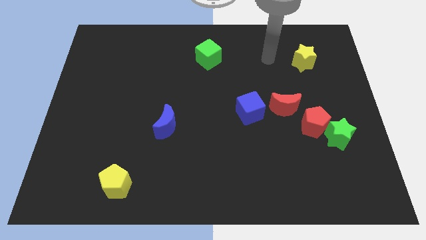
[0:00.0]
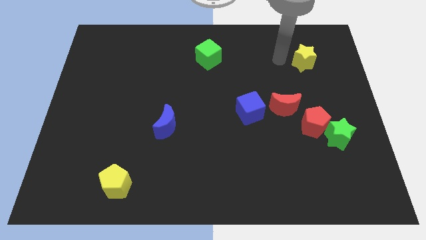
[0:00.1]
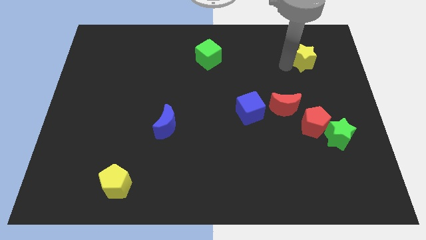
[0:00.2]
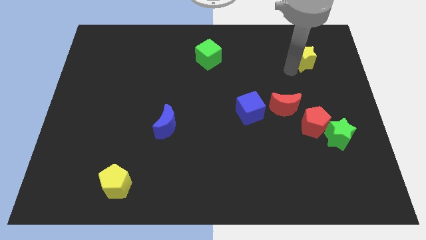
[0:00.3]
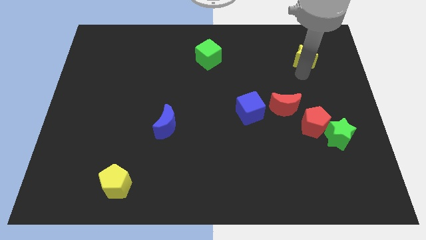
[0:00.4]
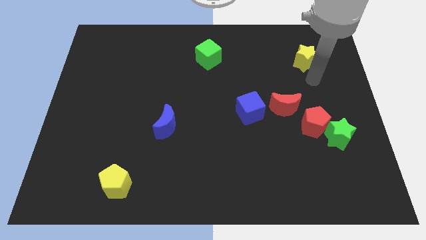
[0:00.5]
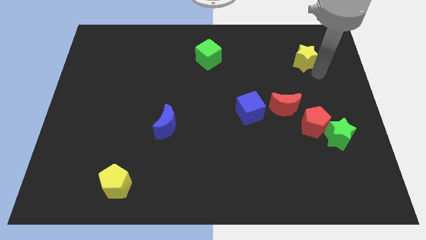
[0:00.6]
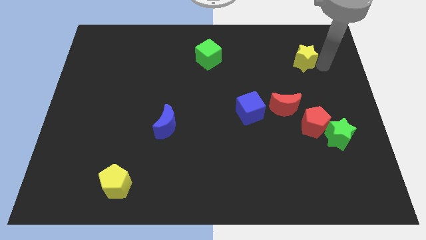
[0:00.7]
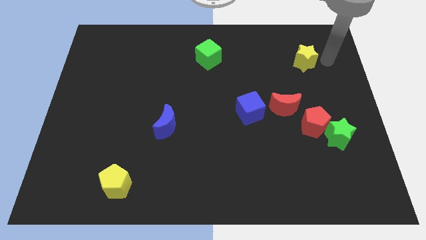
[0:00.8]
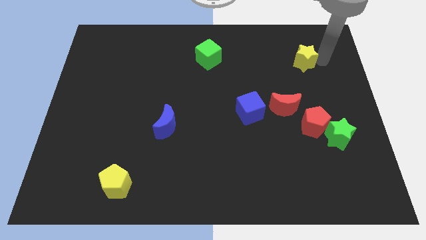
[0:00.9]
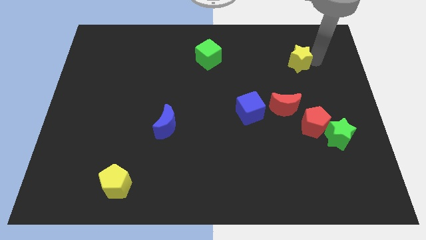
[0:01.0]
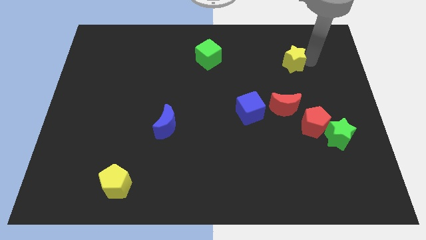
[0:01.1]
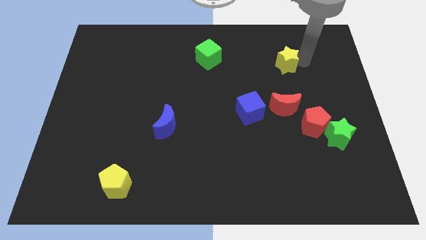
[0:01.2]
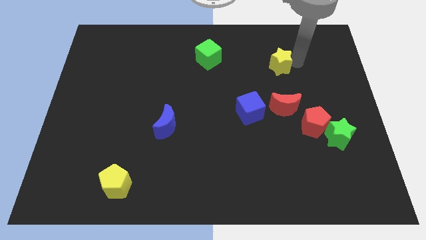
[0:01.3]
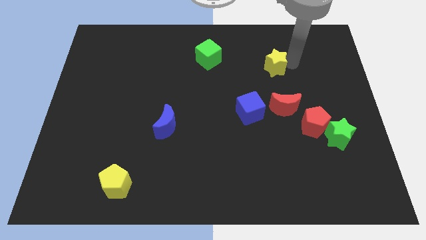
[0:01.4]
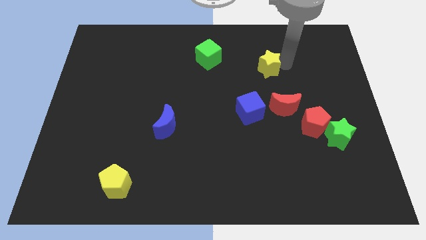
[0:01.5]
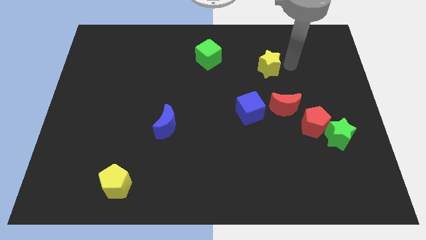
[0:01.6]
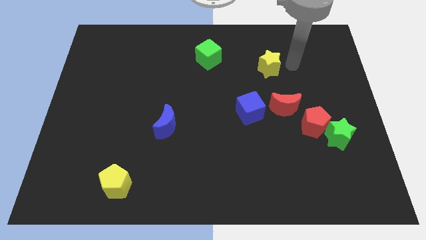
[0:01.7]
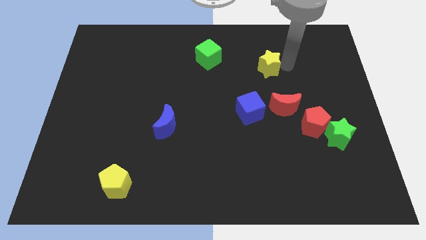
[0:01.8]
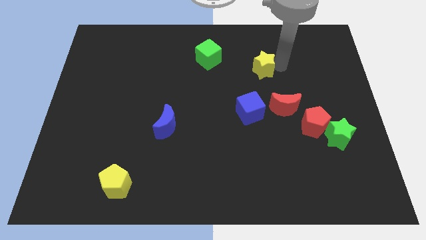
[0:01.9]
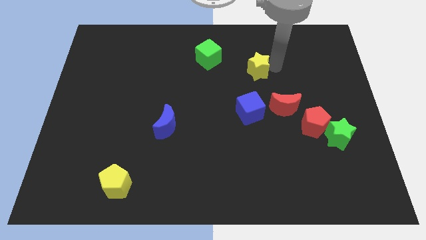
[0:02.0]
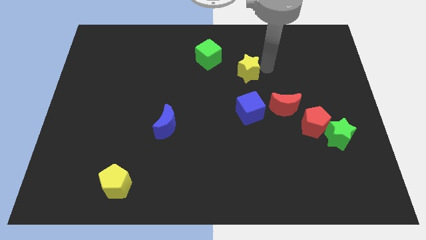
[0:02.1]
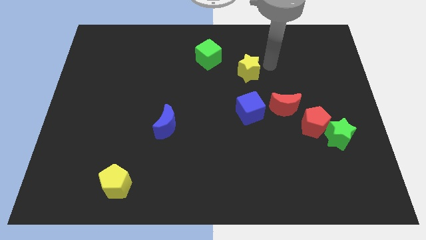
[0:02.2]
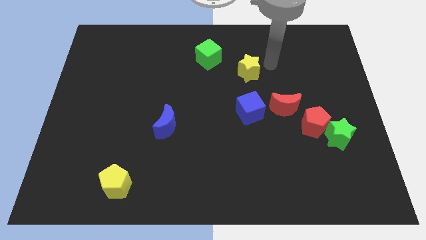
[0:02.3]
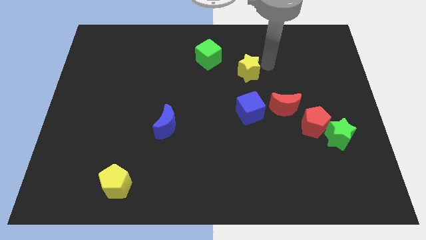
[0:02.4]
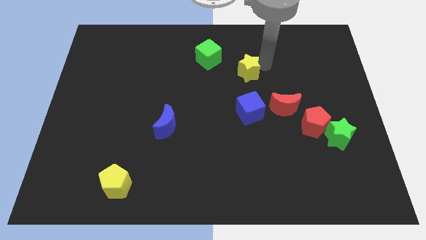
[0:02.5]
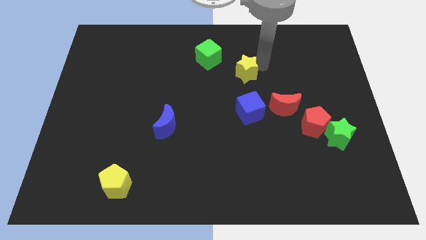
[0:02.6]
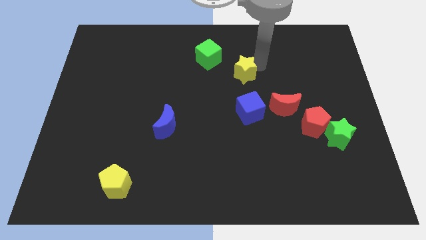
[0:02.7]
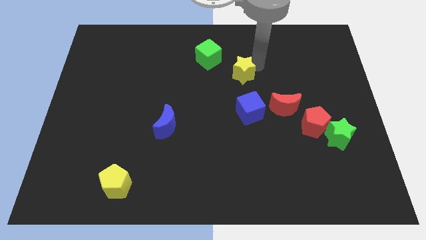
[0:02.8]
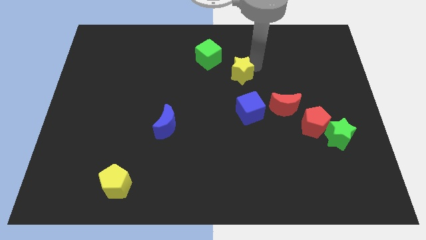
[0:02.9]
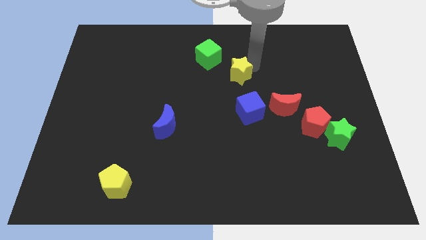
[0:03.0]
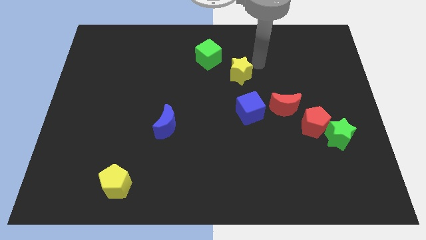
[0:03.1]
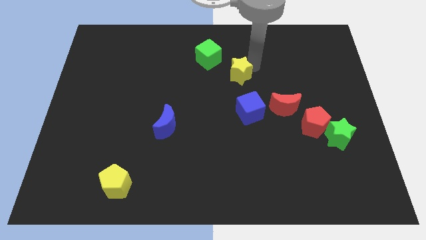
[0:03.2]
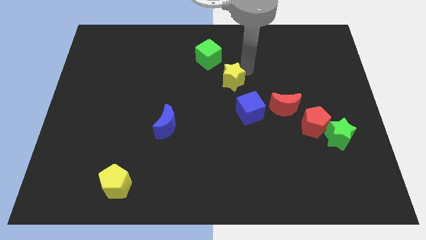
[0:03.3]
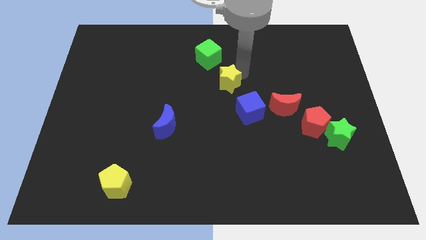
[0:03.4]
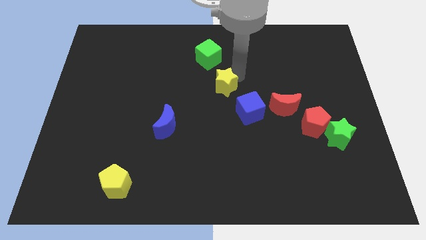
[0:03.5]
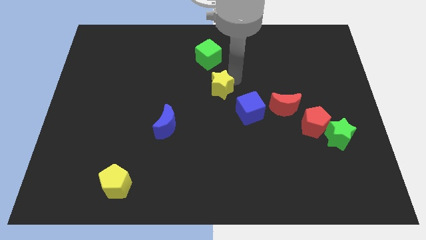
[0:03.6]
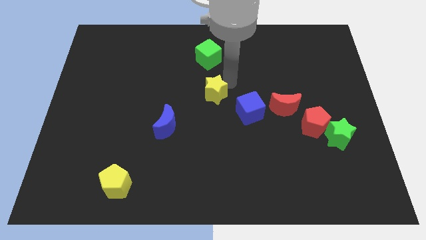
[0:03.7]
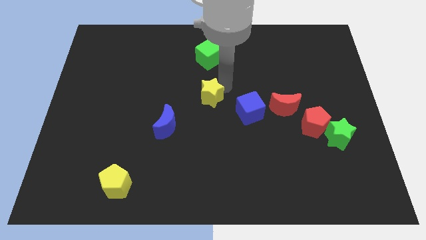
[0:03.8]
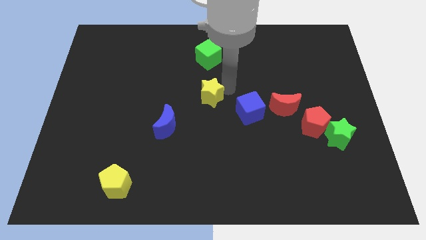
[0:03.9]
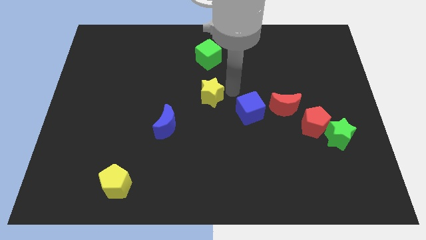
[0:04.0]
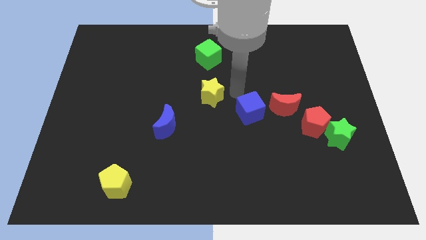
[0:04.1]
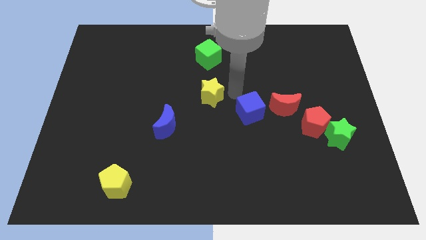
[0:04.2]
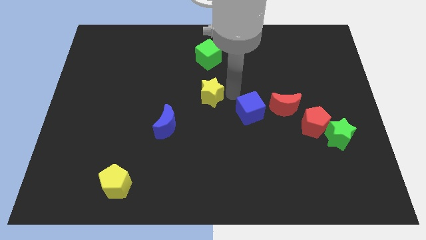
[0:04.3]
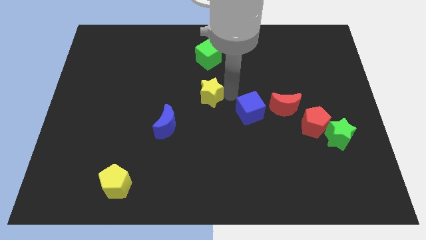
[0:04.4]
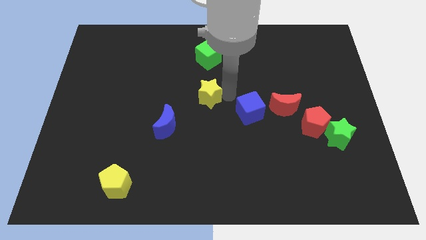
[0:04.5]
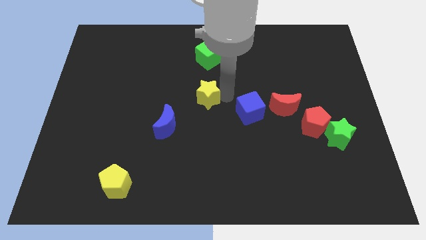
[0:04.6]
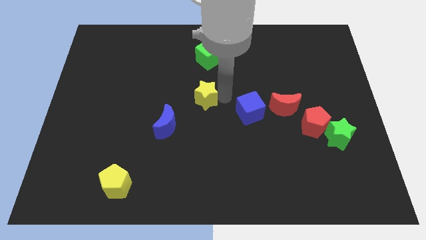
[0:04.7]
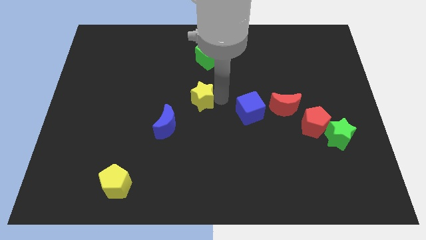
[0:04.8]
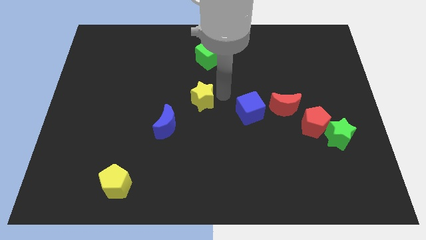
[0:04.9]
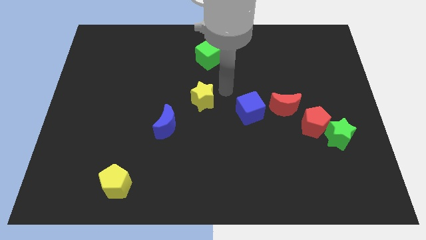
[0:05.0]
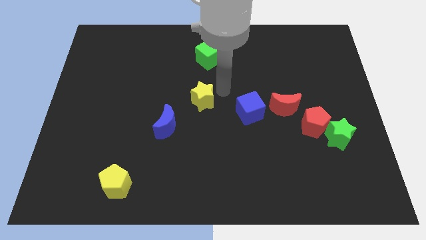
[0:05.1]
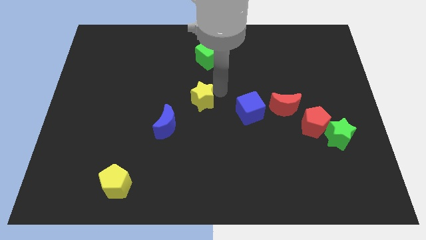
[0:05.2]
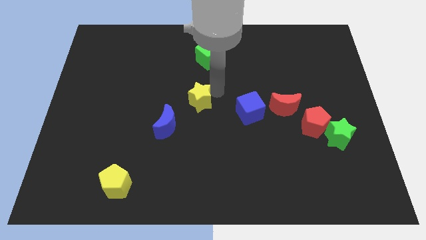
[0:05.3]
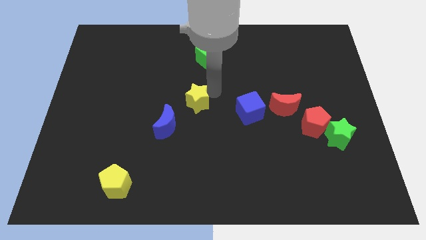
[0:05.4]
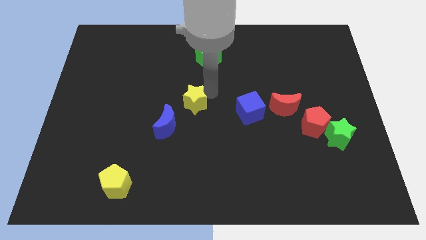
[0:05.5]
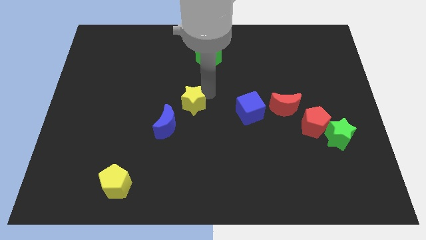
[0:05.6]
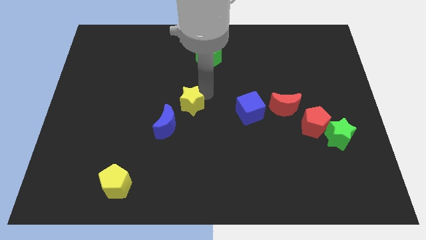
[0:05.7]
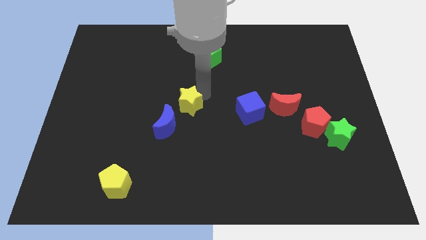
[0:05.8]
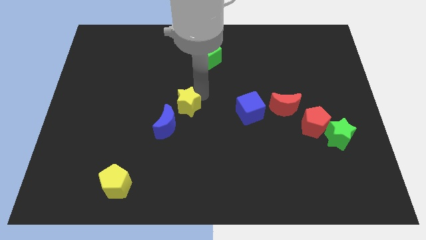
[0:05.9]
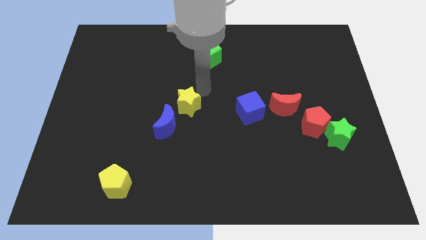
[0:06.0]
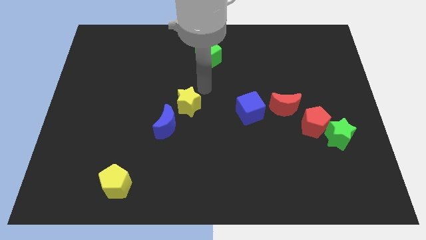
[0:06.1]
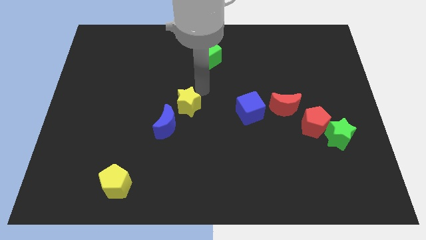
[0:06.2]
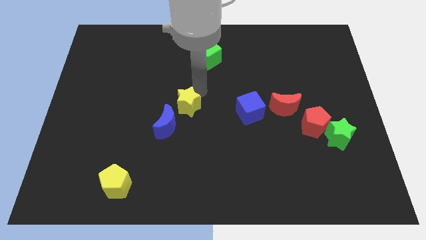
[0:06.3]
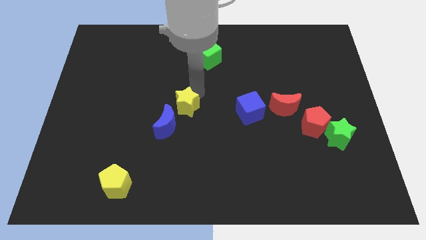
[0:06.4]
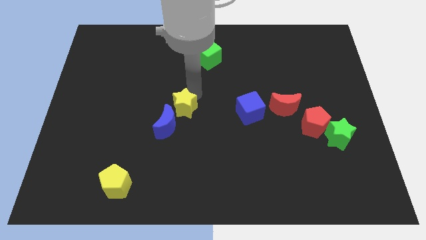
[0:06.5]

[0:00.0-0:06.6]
move the yellow star to the blue moon
